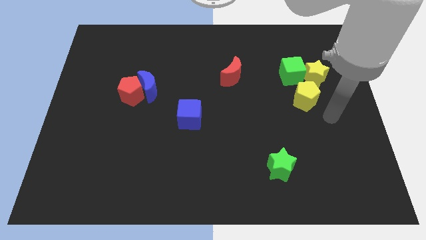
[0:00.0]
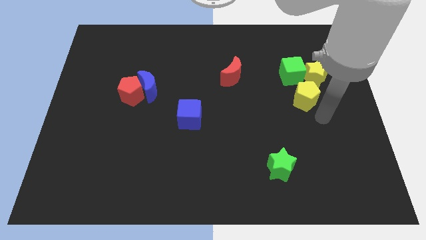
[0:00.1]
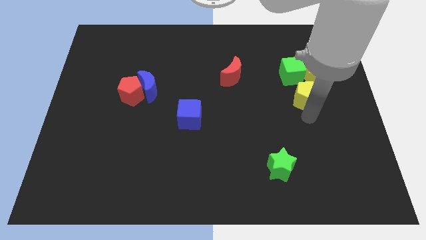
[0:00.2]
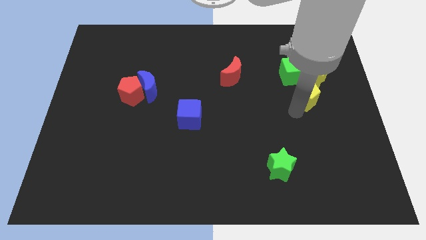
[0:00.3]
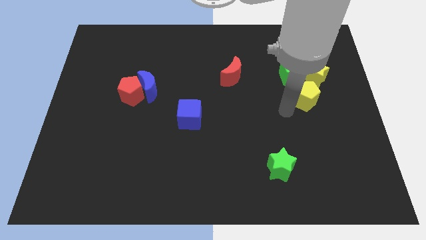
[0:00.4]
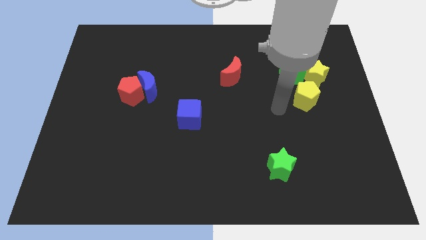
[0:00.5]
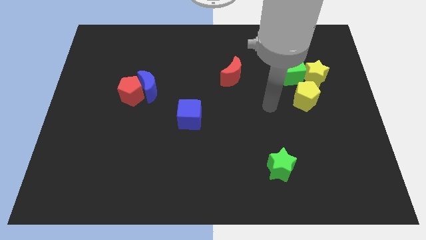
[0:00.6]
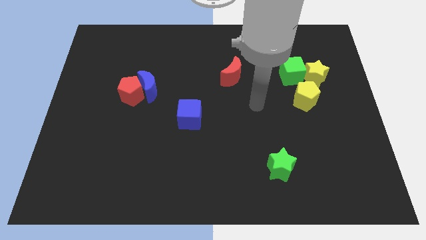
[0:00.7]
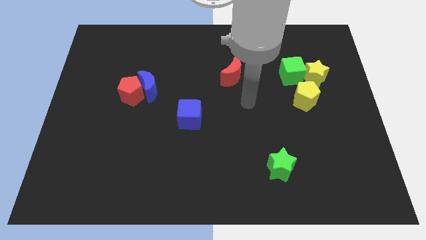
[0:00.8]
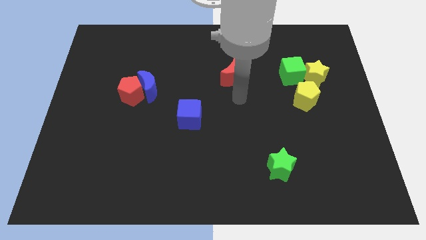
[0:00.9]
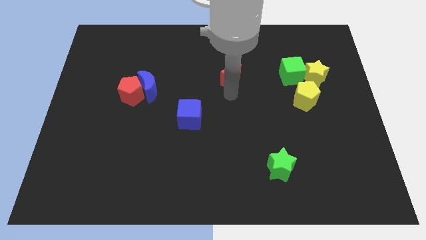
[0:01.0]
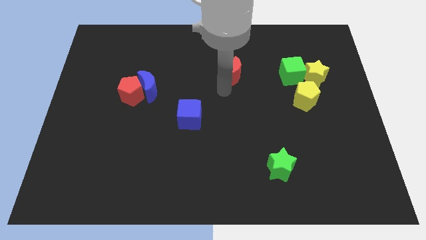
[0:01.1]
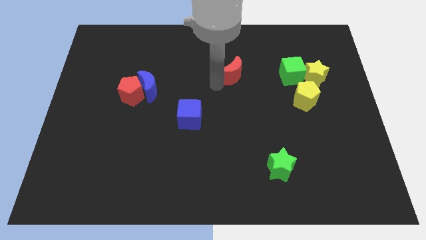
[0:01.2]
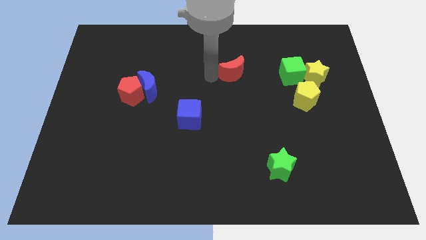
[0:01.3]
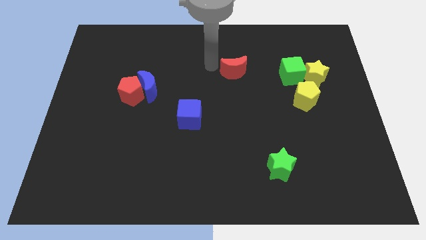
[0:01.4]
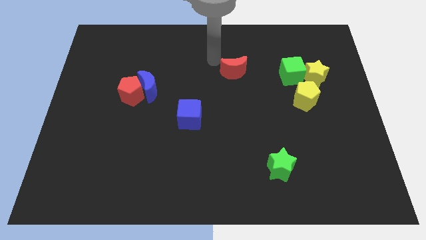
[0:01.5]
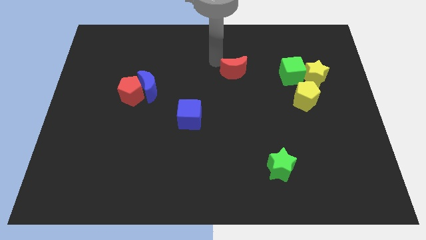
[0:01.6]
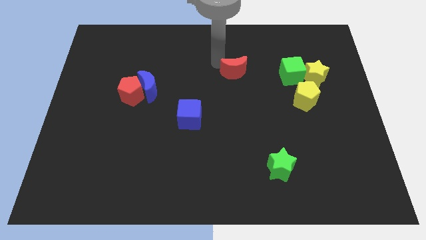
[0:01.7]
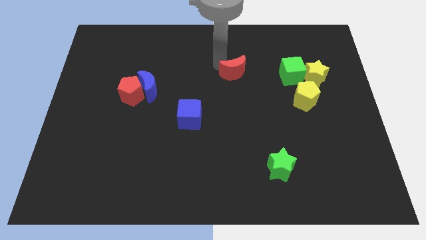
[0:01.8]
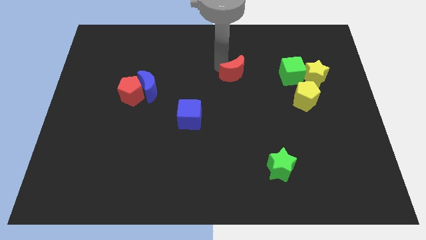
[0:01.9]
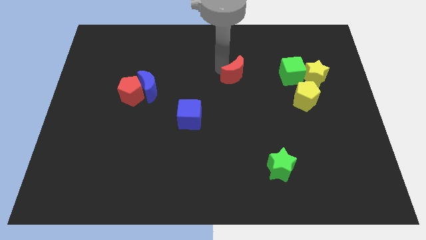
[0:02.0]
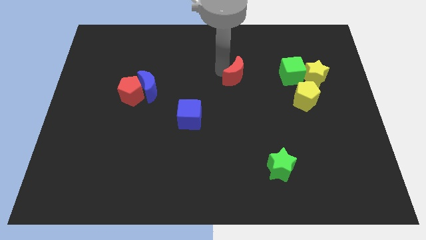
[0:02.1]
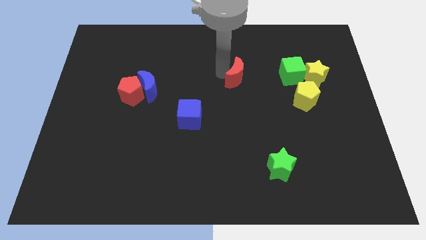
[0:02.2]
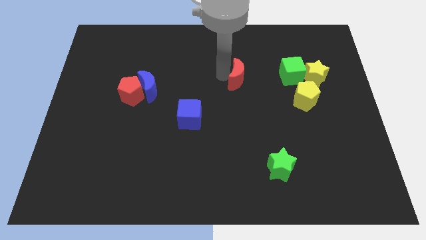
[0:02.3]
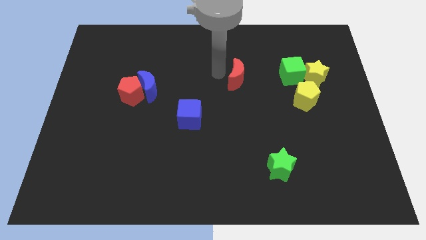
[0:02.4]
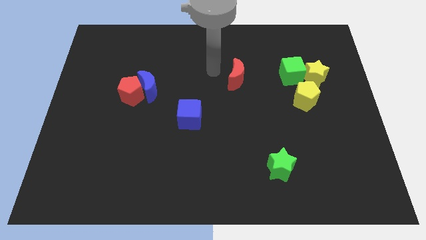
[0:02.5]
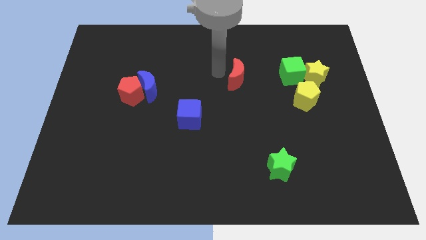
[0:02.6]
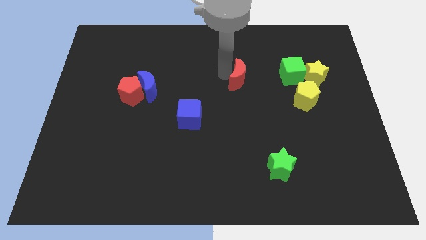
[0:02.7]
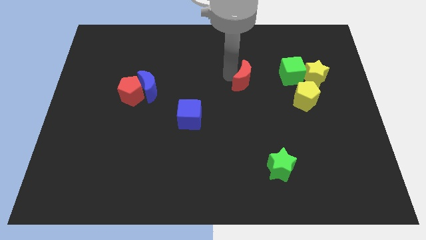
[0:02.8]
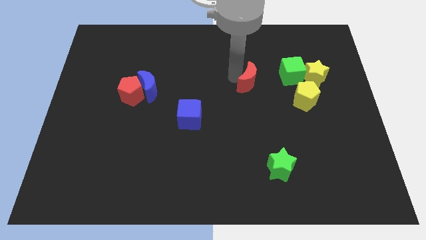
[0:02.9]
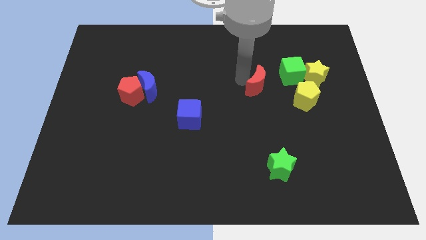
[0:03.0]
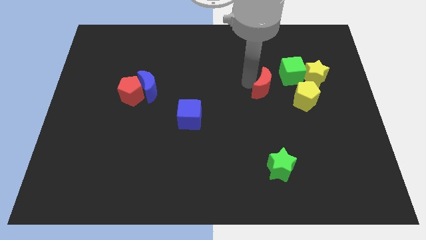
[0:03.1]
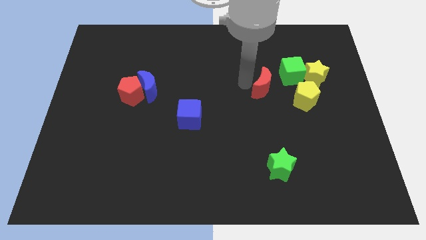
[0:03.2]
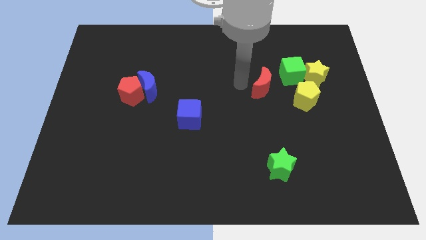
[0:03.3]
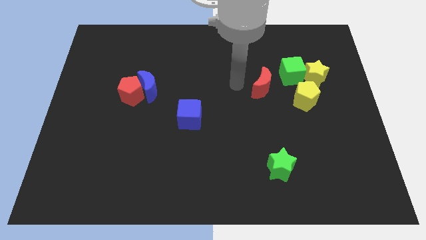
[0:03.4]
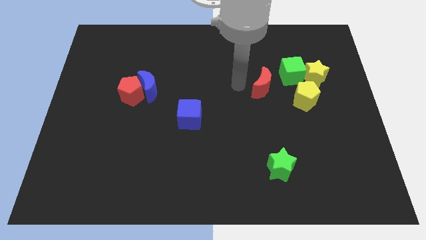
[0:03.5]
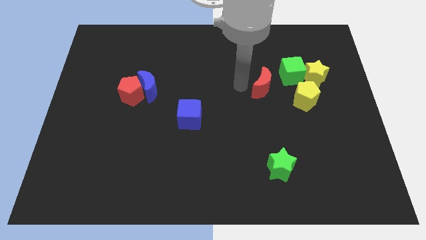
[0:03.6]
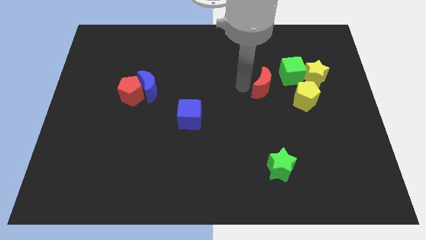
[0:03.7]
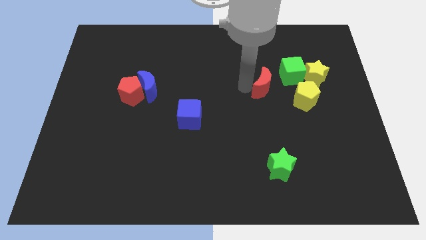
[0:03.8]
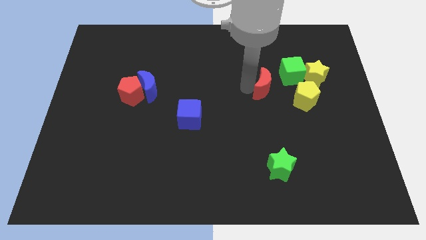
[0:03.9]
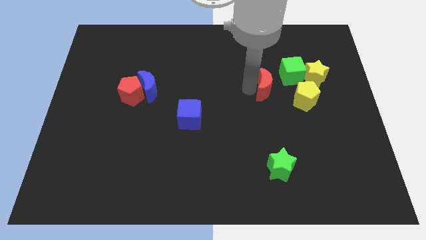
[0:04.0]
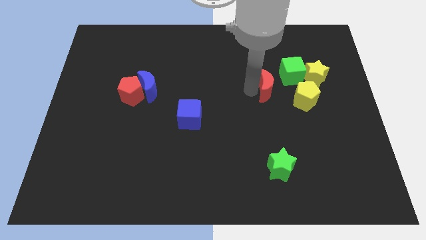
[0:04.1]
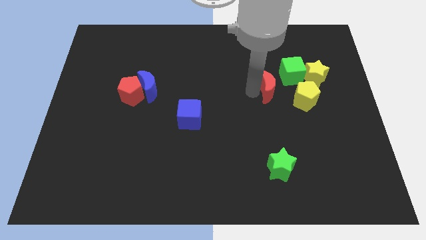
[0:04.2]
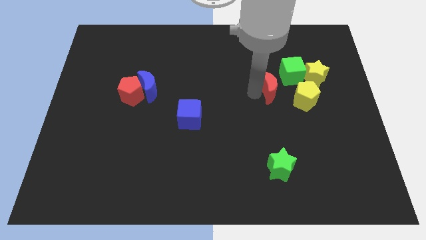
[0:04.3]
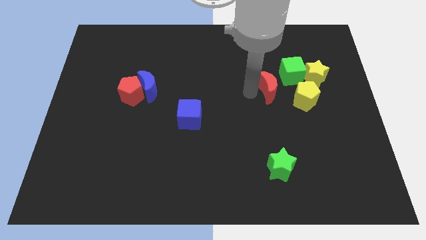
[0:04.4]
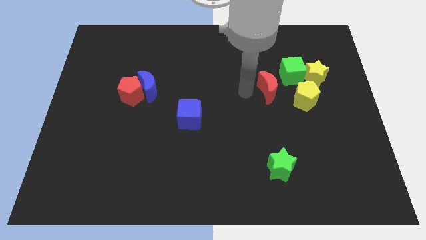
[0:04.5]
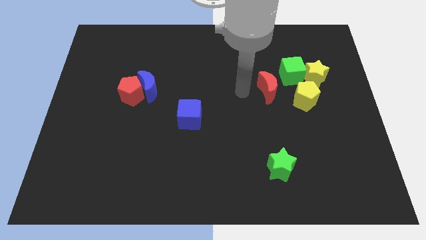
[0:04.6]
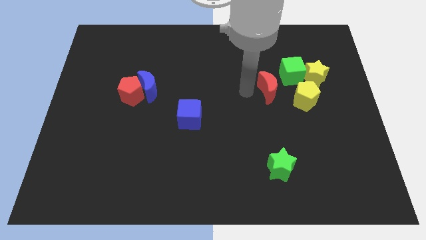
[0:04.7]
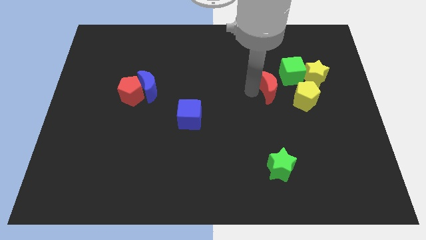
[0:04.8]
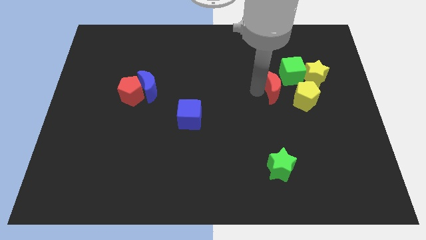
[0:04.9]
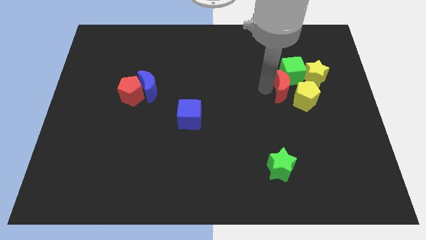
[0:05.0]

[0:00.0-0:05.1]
push the red moon towards the yellow pentagon

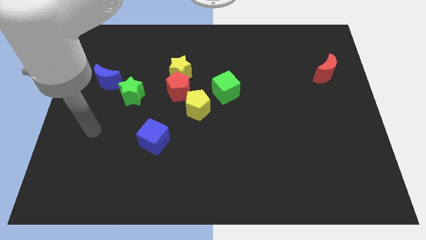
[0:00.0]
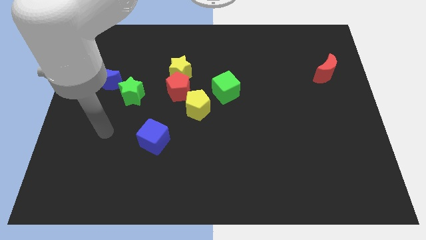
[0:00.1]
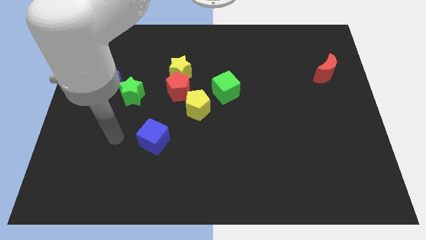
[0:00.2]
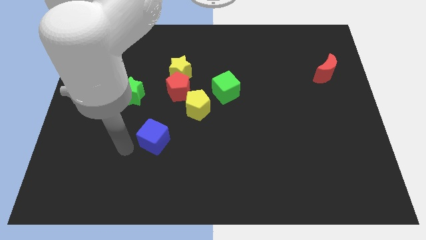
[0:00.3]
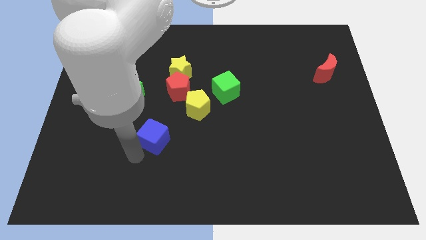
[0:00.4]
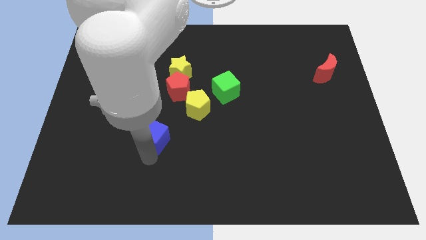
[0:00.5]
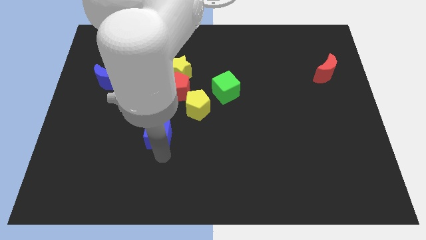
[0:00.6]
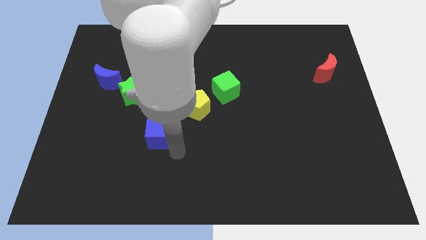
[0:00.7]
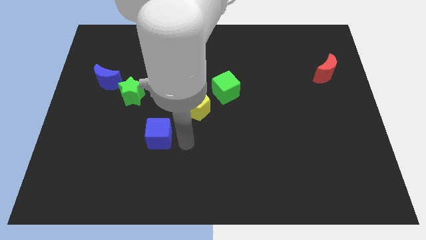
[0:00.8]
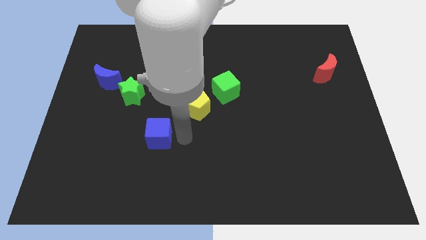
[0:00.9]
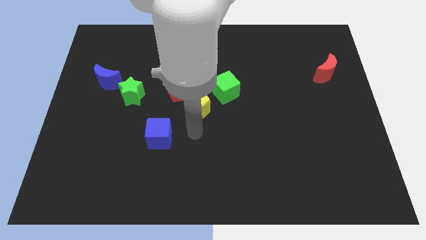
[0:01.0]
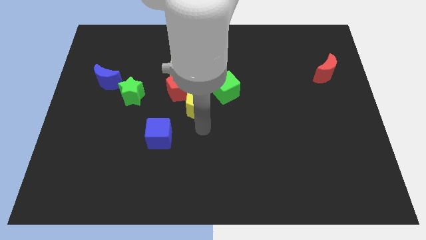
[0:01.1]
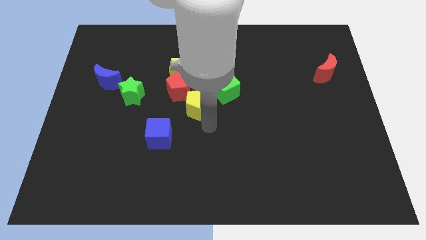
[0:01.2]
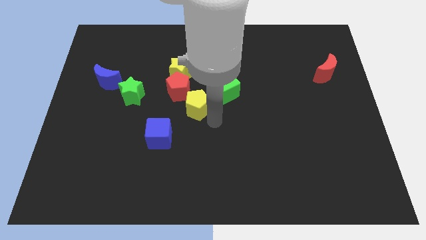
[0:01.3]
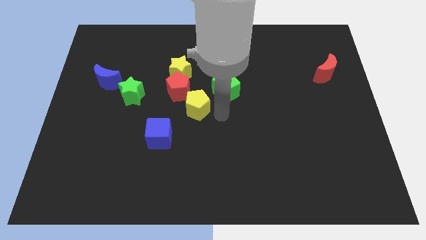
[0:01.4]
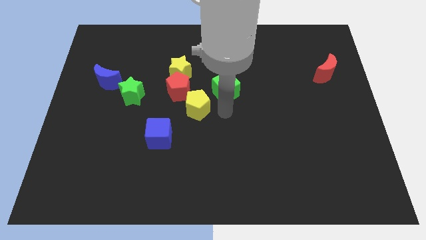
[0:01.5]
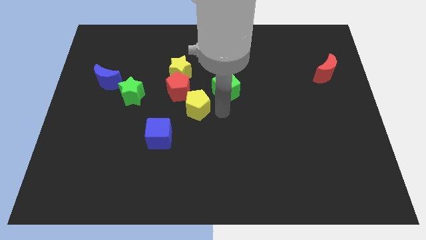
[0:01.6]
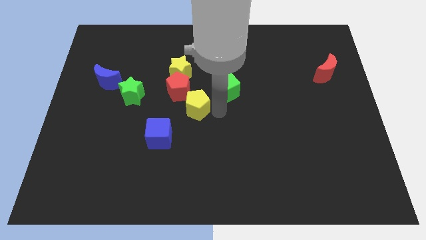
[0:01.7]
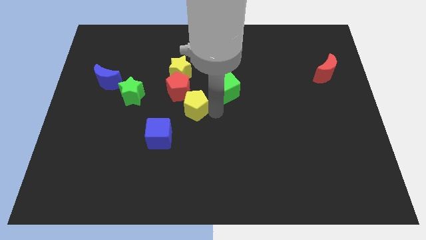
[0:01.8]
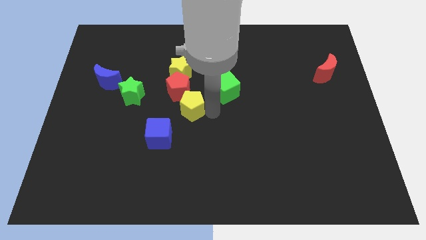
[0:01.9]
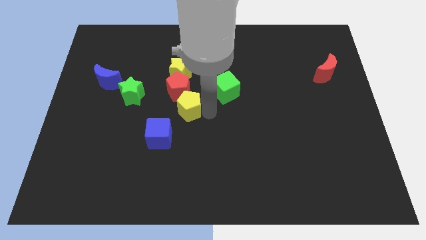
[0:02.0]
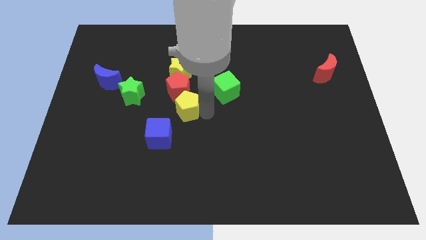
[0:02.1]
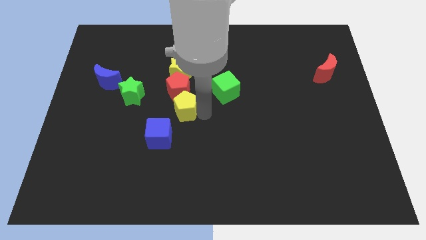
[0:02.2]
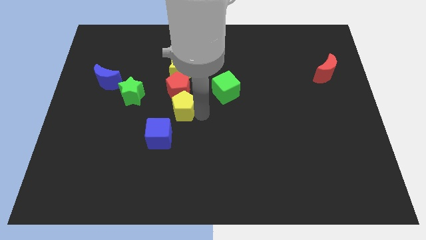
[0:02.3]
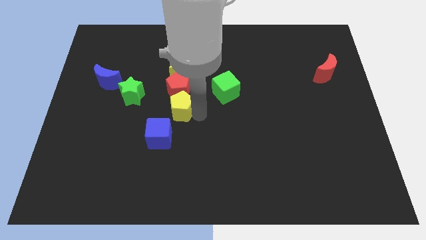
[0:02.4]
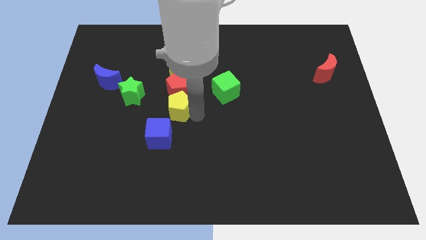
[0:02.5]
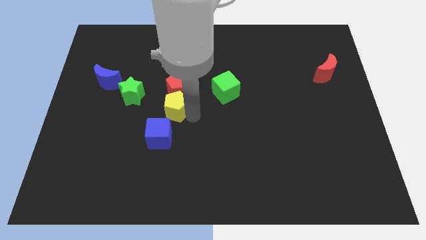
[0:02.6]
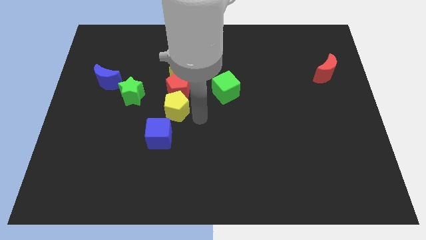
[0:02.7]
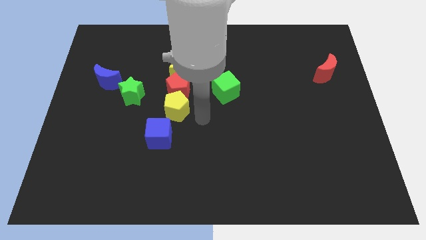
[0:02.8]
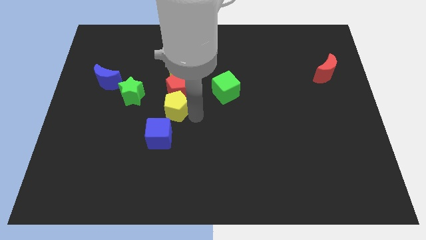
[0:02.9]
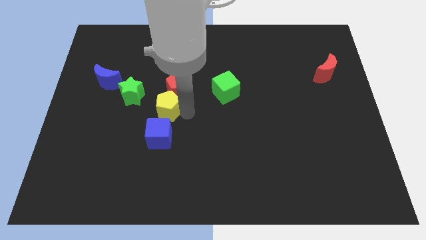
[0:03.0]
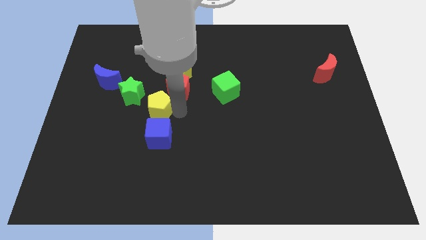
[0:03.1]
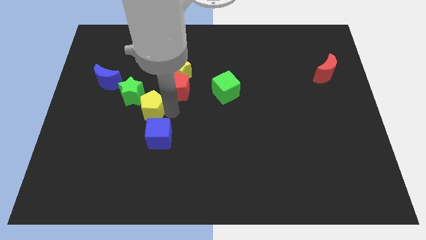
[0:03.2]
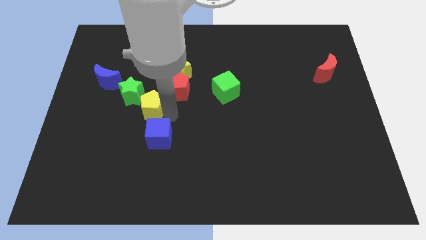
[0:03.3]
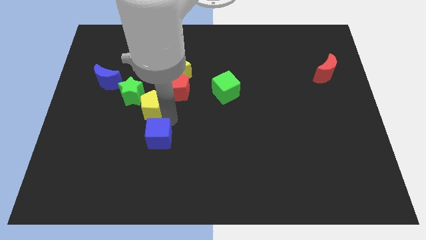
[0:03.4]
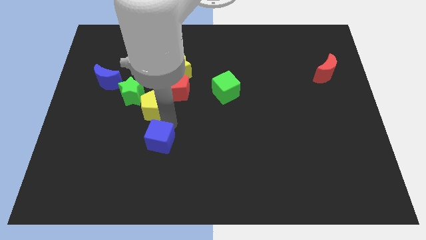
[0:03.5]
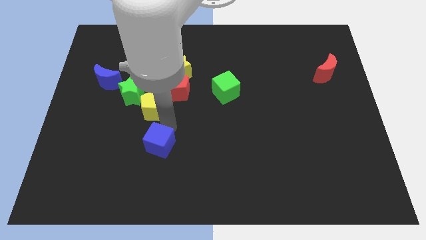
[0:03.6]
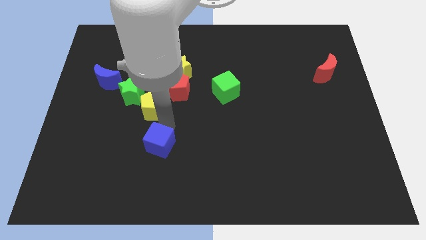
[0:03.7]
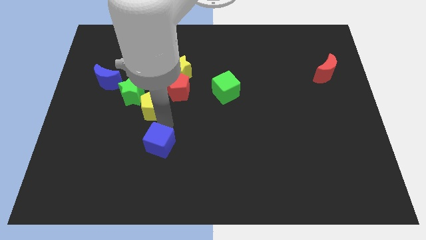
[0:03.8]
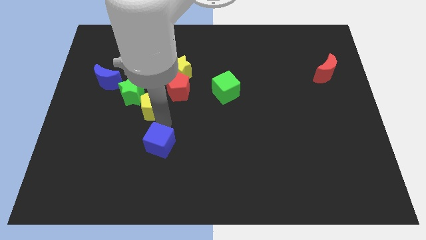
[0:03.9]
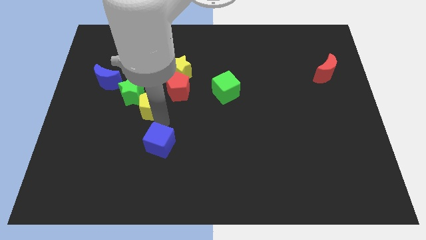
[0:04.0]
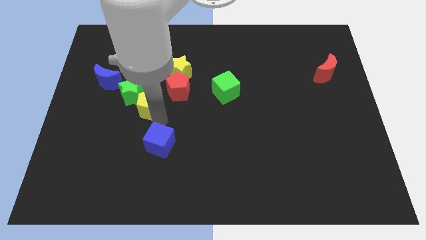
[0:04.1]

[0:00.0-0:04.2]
slide the yellow pentagon to the green star
